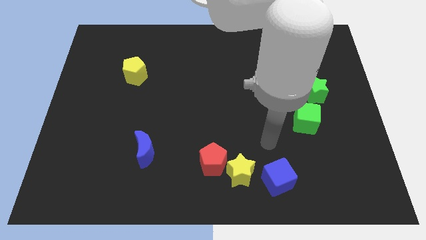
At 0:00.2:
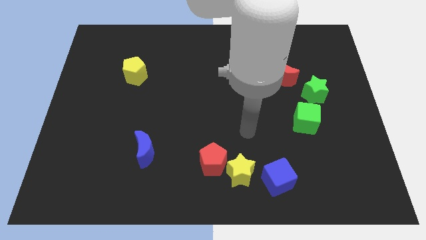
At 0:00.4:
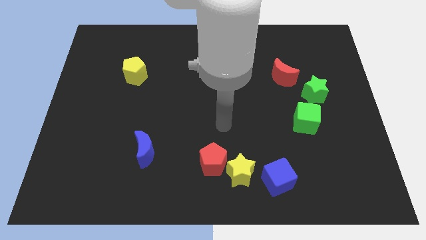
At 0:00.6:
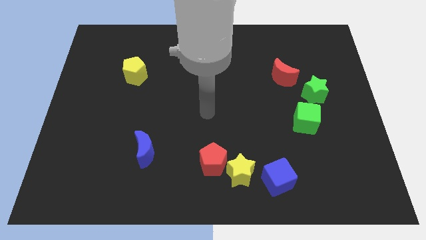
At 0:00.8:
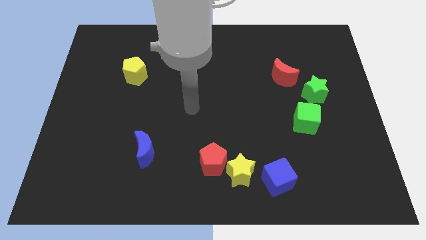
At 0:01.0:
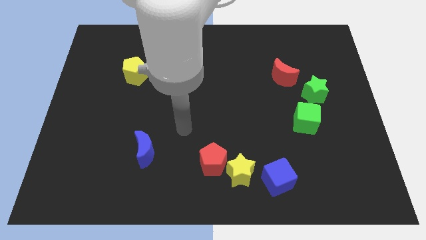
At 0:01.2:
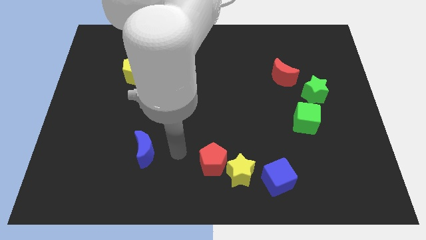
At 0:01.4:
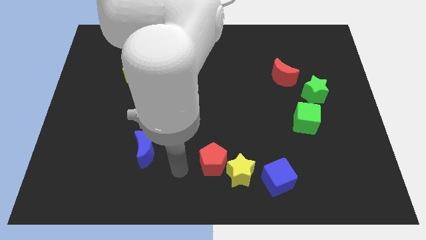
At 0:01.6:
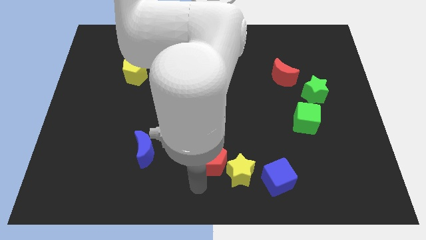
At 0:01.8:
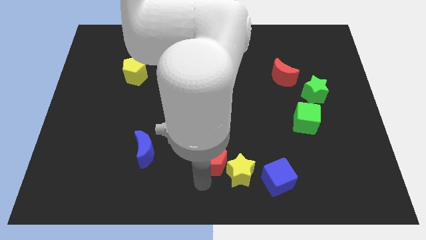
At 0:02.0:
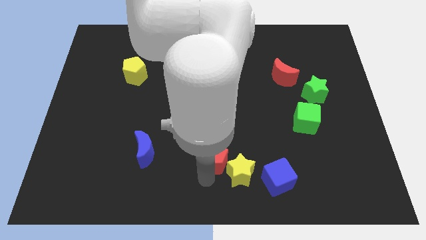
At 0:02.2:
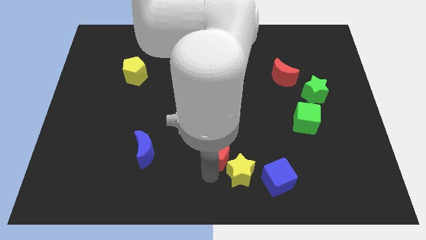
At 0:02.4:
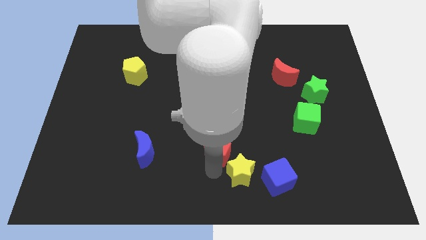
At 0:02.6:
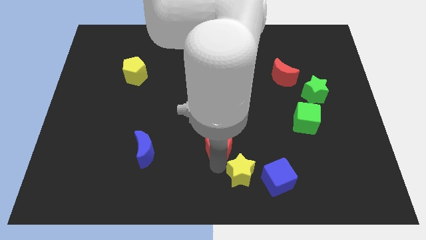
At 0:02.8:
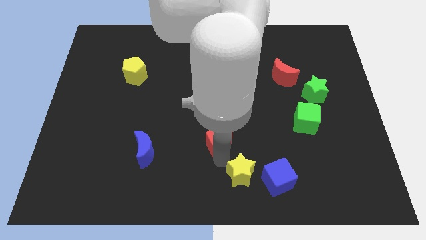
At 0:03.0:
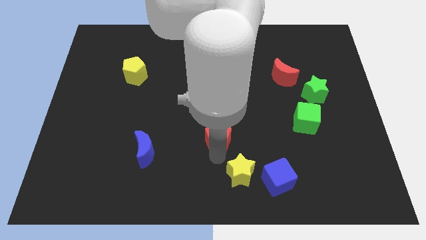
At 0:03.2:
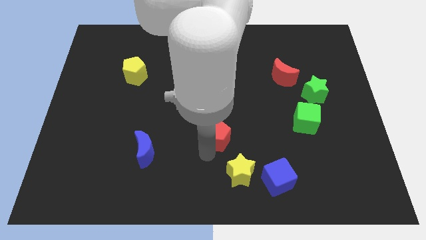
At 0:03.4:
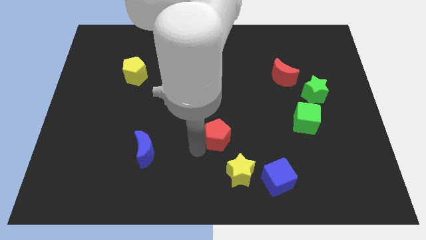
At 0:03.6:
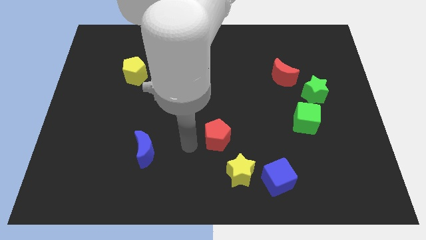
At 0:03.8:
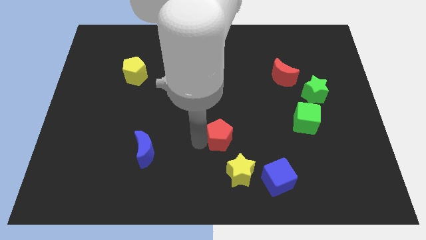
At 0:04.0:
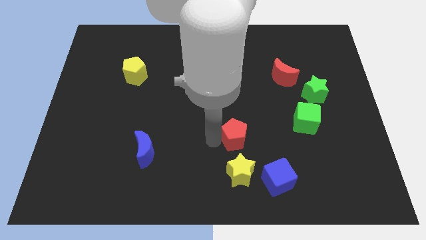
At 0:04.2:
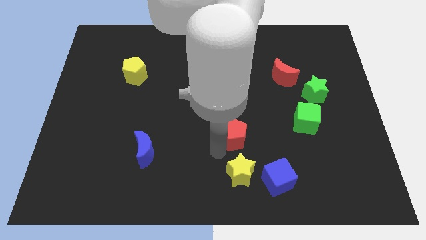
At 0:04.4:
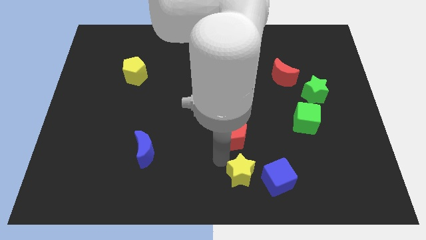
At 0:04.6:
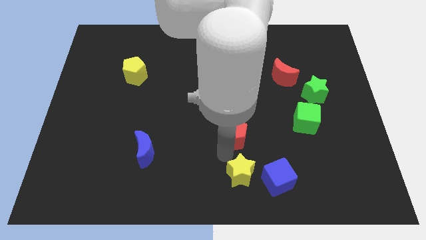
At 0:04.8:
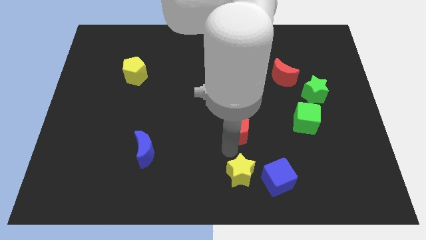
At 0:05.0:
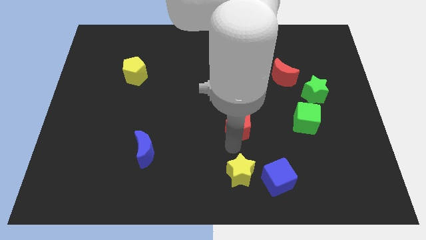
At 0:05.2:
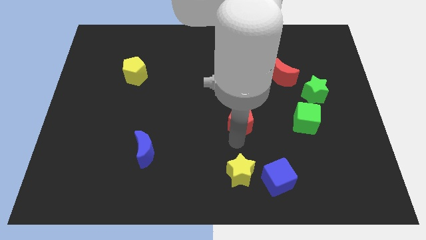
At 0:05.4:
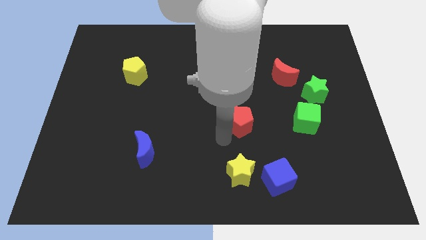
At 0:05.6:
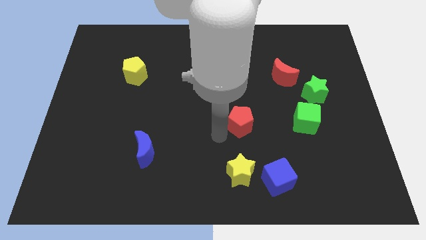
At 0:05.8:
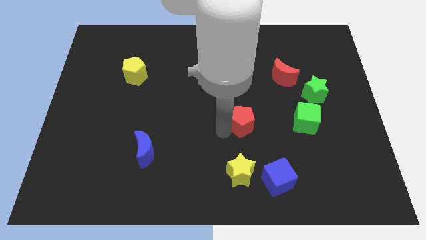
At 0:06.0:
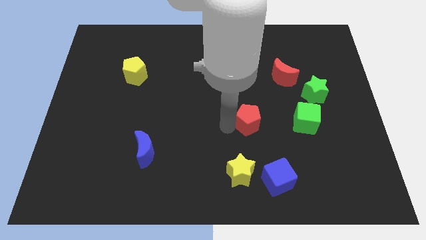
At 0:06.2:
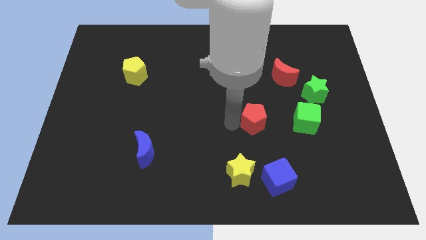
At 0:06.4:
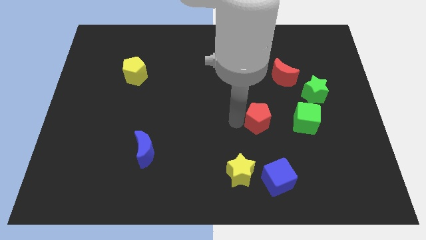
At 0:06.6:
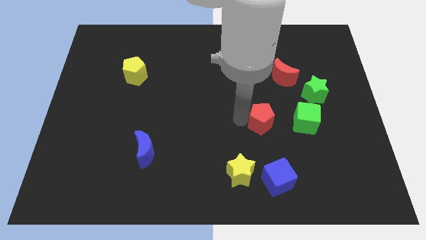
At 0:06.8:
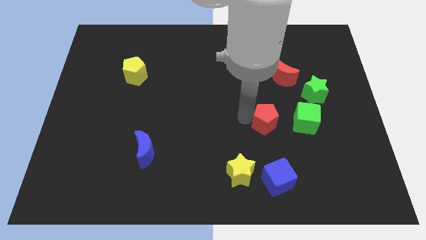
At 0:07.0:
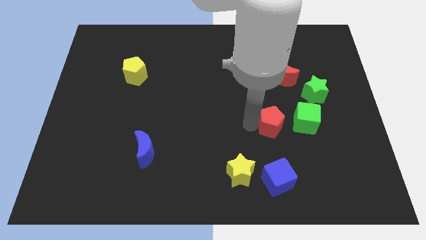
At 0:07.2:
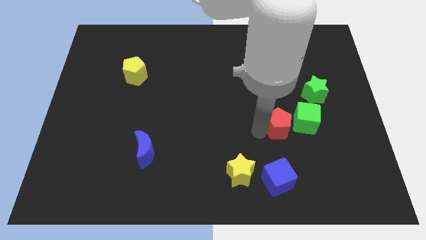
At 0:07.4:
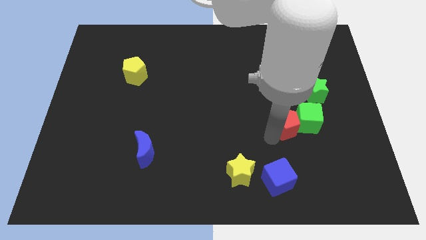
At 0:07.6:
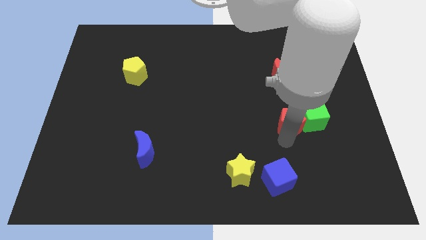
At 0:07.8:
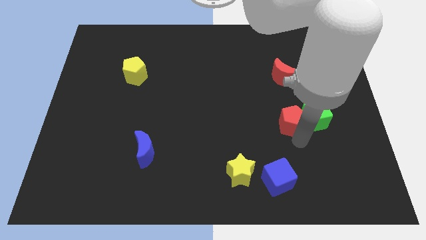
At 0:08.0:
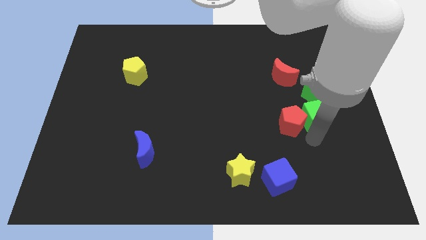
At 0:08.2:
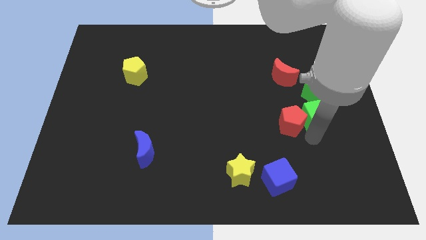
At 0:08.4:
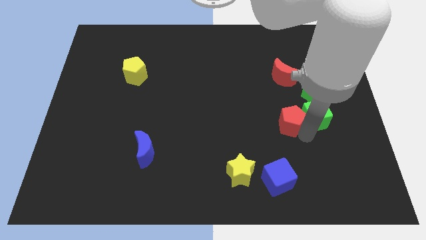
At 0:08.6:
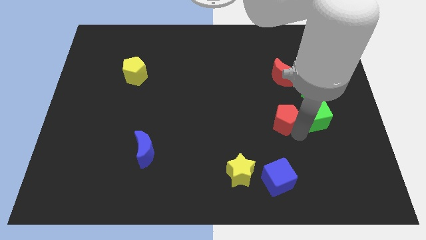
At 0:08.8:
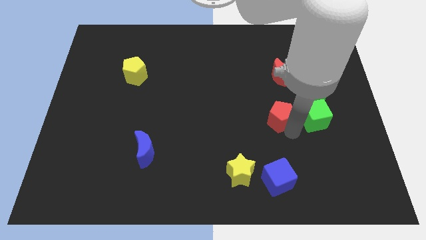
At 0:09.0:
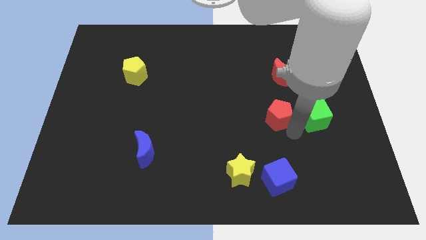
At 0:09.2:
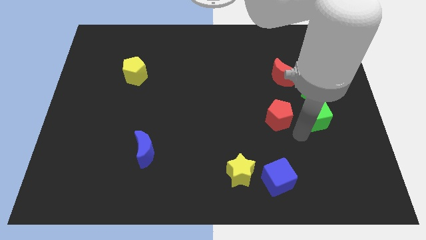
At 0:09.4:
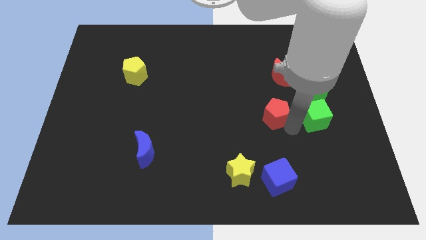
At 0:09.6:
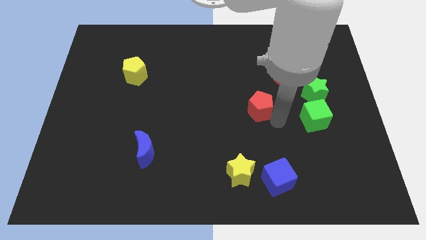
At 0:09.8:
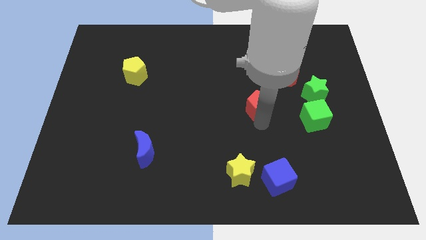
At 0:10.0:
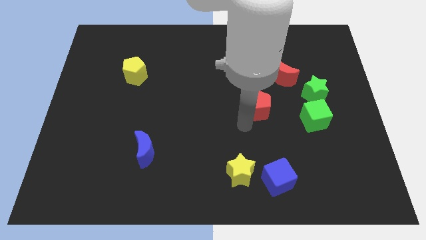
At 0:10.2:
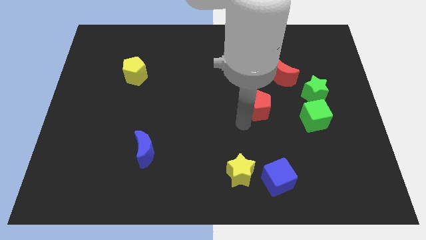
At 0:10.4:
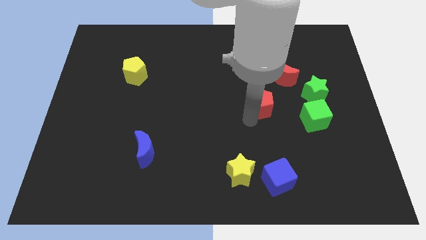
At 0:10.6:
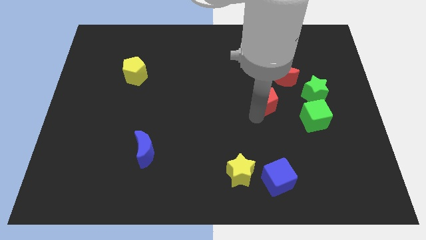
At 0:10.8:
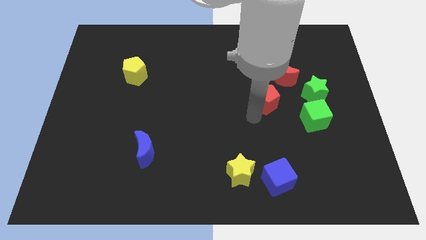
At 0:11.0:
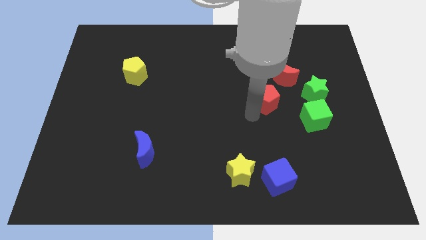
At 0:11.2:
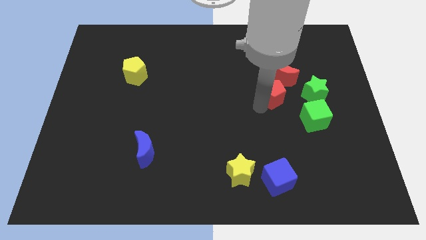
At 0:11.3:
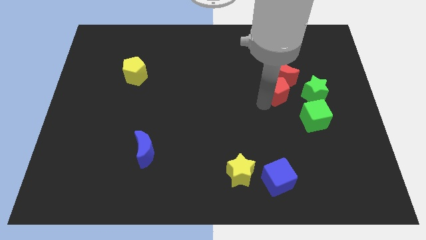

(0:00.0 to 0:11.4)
slide the red pentagon to the red moon

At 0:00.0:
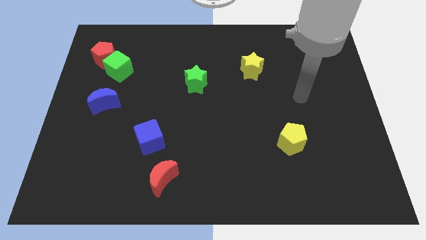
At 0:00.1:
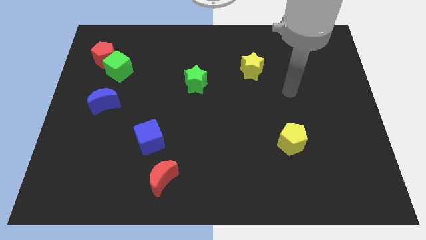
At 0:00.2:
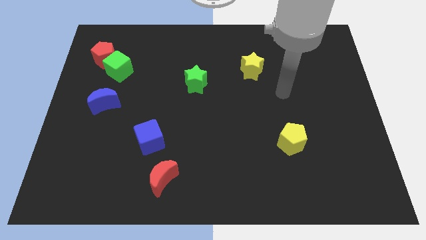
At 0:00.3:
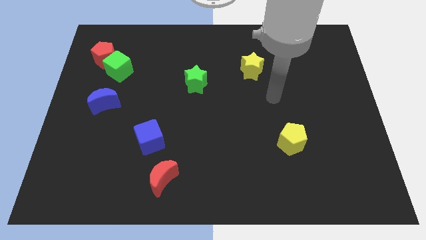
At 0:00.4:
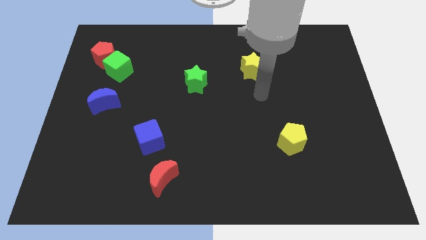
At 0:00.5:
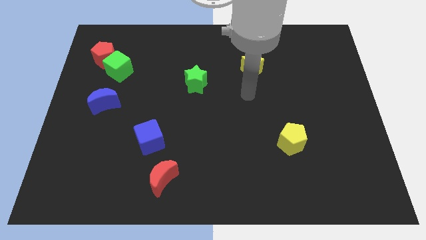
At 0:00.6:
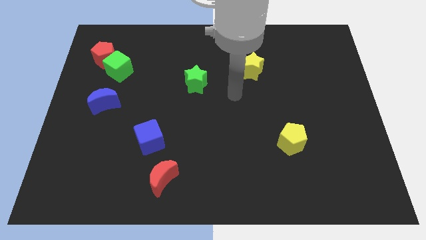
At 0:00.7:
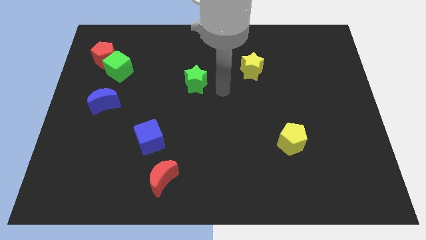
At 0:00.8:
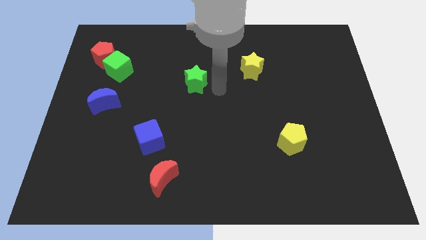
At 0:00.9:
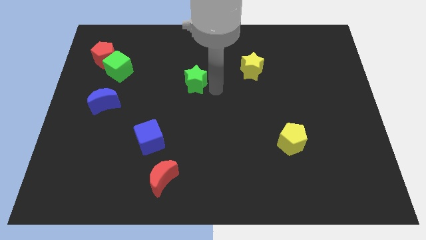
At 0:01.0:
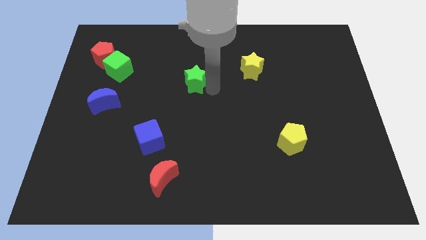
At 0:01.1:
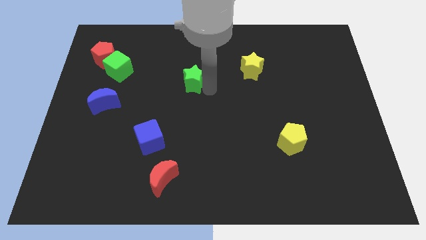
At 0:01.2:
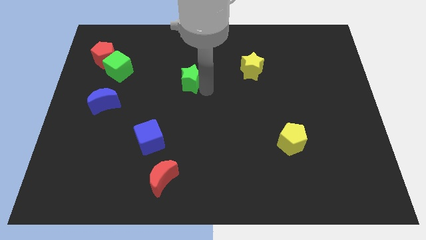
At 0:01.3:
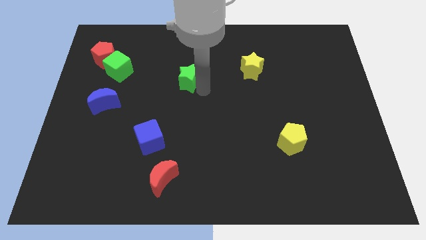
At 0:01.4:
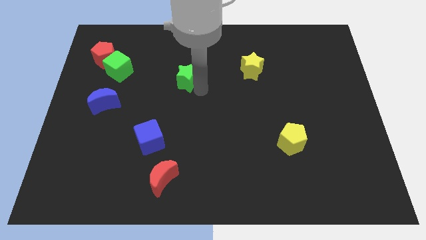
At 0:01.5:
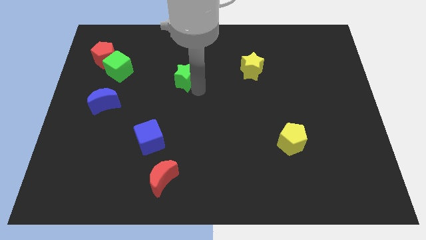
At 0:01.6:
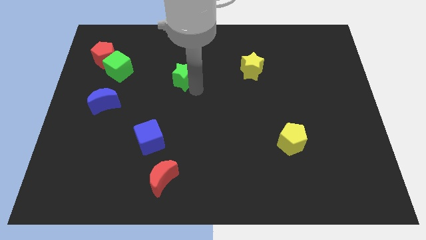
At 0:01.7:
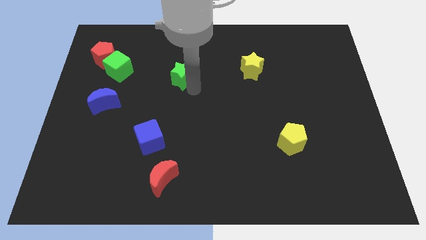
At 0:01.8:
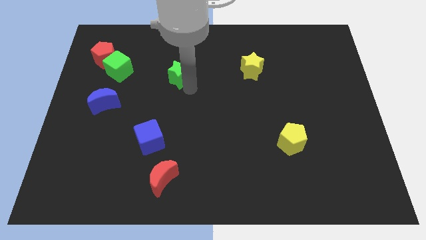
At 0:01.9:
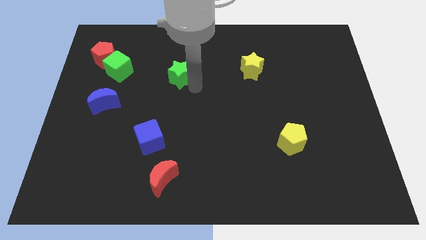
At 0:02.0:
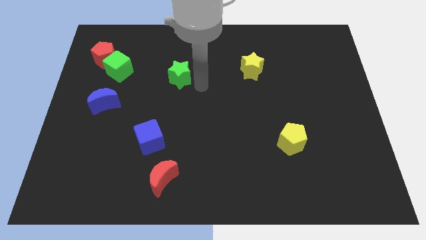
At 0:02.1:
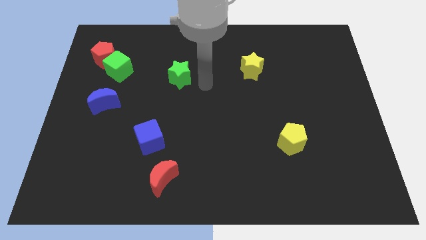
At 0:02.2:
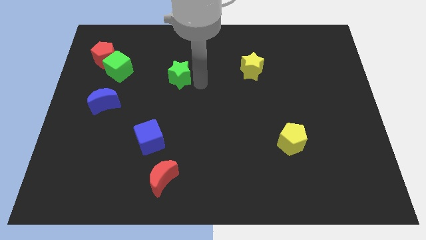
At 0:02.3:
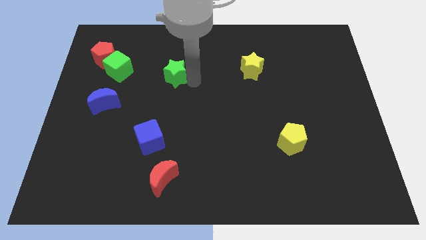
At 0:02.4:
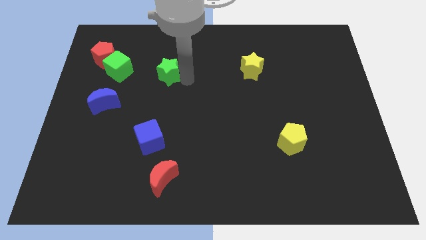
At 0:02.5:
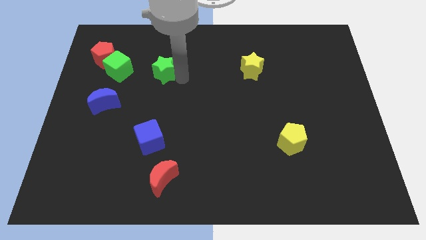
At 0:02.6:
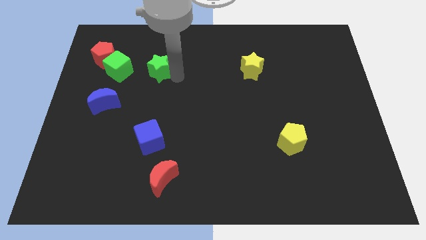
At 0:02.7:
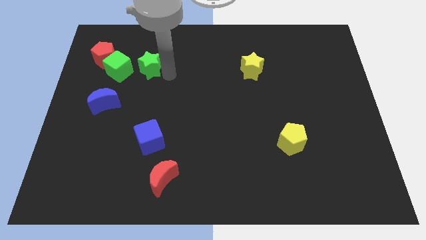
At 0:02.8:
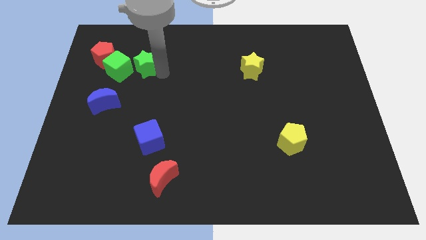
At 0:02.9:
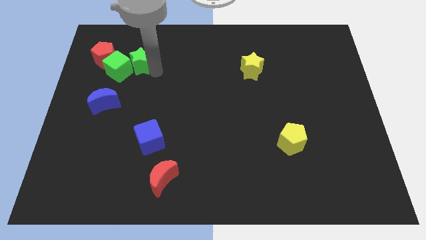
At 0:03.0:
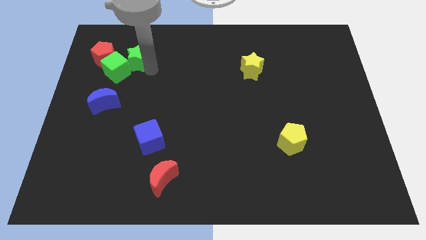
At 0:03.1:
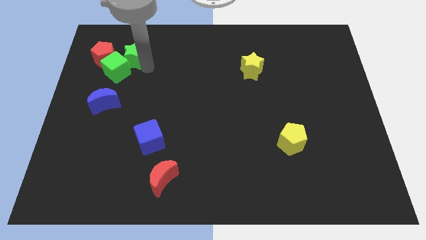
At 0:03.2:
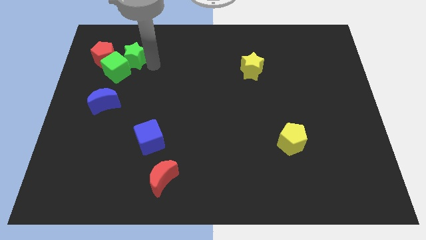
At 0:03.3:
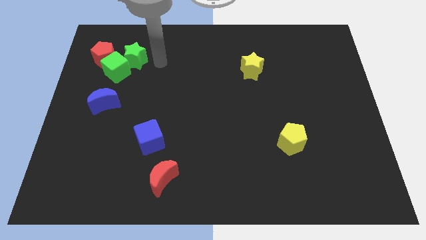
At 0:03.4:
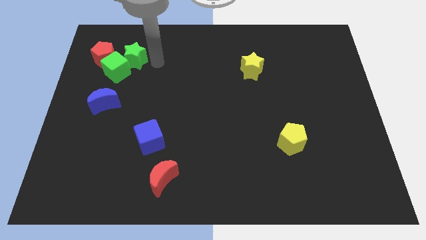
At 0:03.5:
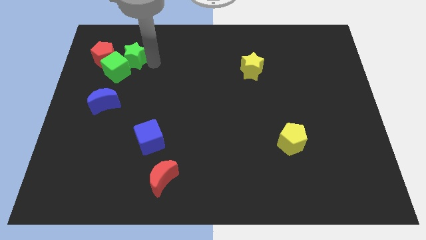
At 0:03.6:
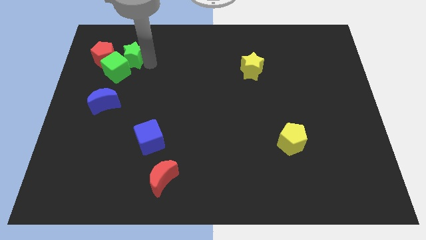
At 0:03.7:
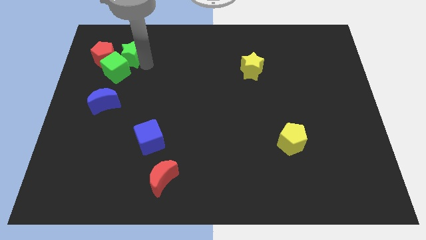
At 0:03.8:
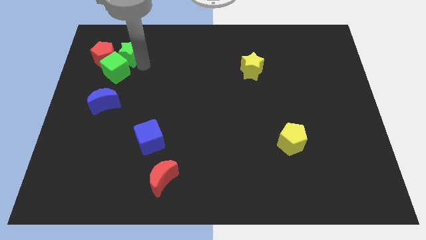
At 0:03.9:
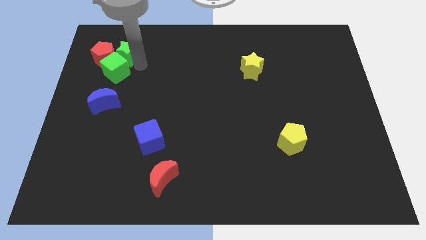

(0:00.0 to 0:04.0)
slide the green star to the red pentagon
